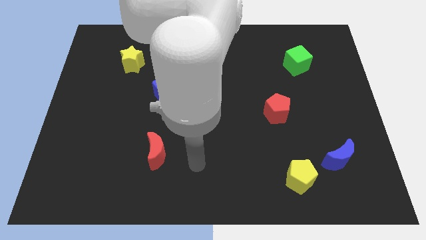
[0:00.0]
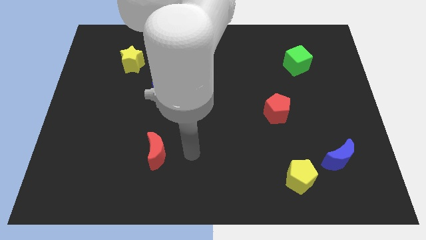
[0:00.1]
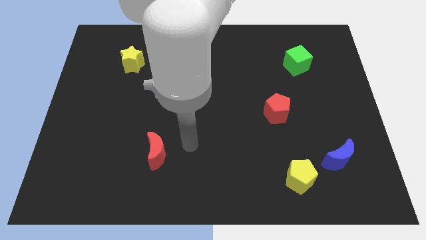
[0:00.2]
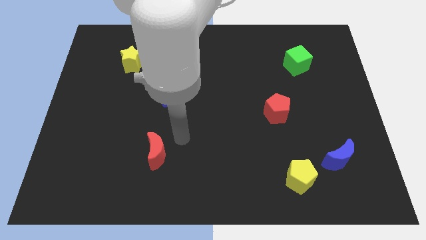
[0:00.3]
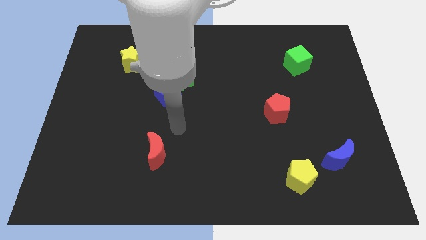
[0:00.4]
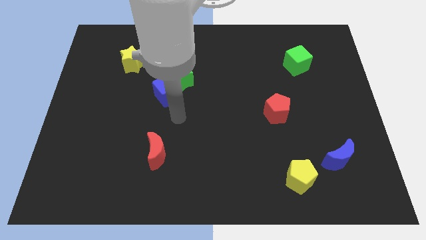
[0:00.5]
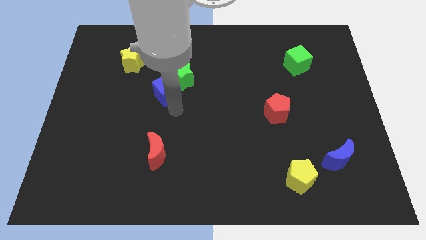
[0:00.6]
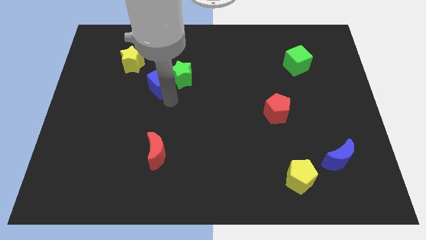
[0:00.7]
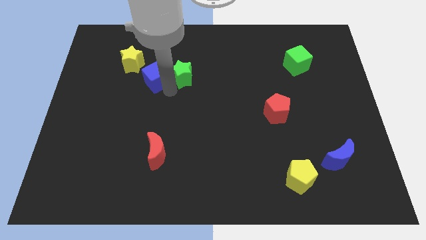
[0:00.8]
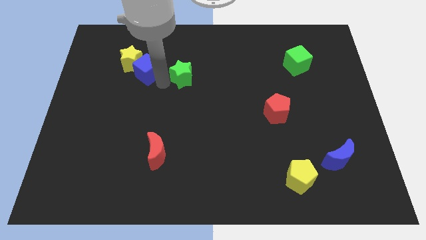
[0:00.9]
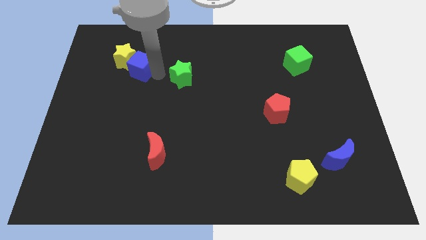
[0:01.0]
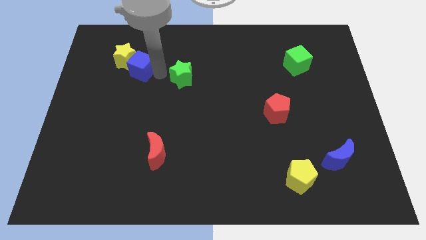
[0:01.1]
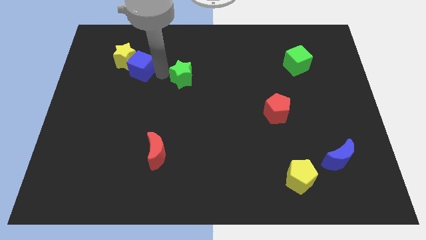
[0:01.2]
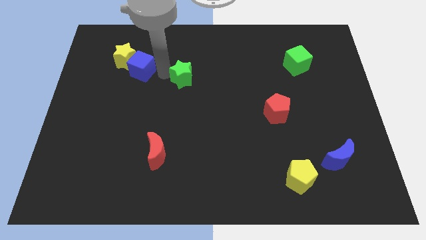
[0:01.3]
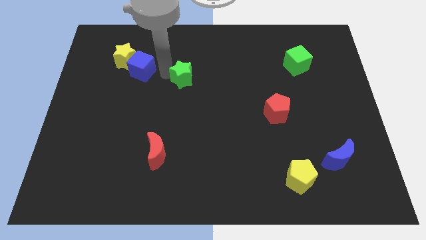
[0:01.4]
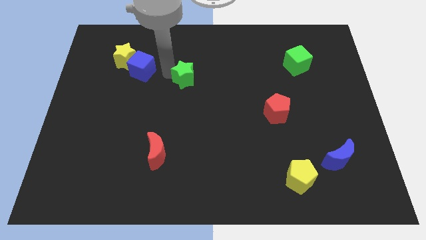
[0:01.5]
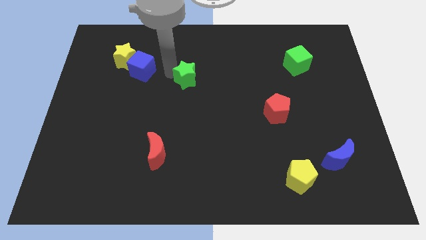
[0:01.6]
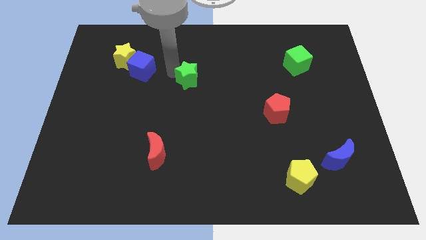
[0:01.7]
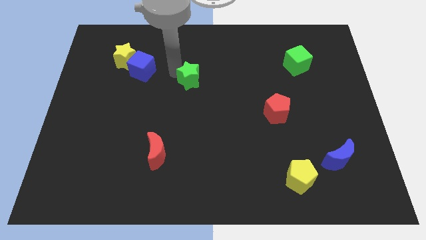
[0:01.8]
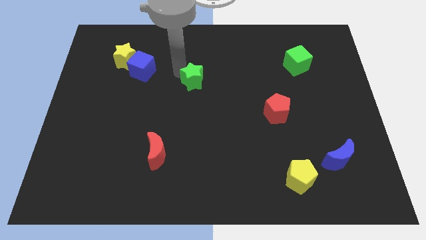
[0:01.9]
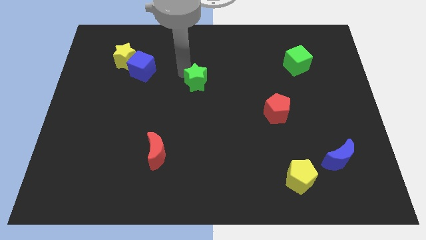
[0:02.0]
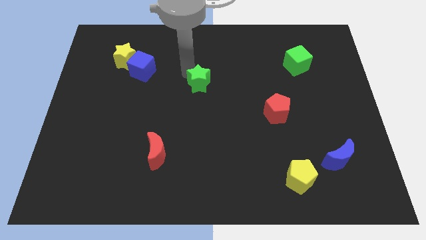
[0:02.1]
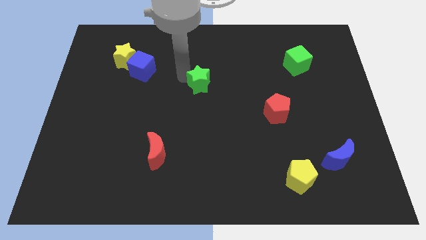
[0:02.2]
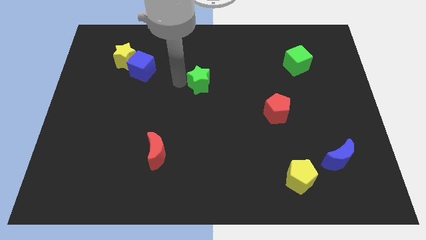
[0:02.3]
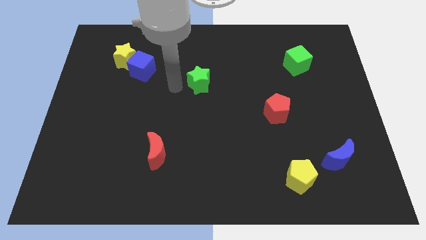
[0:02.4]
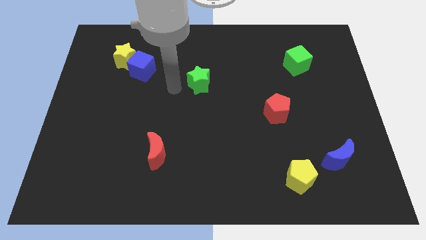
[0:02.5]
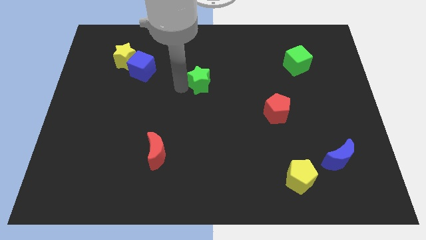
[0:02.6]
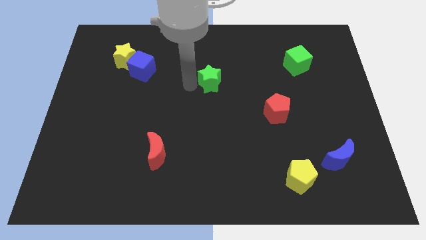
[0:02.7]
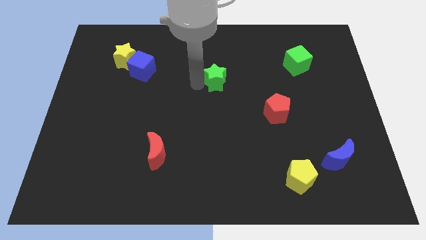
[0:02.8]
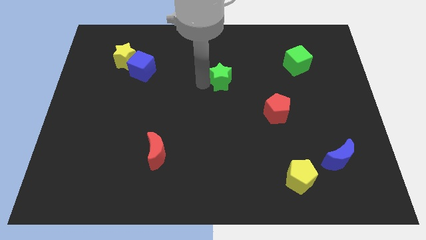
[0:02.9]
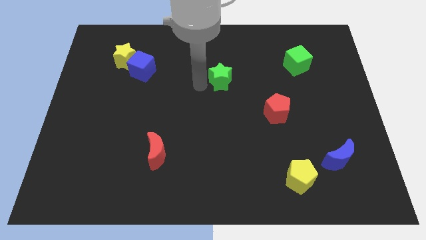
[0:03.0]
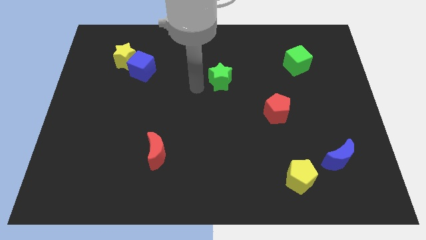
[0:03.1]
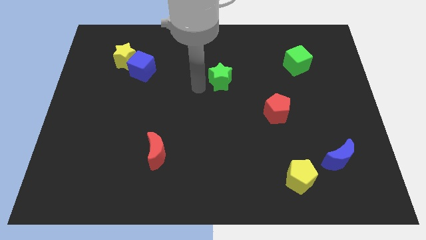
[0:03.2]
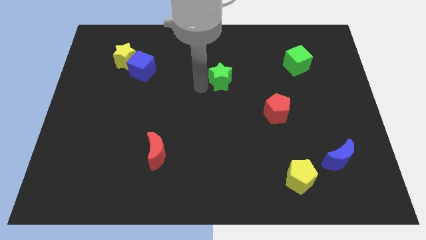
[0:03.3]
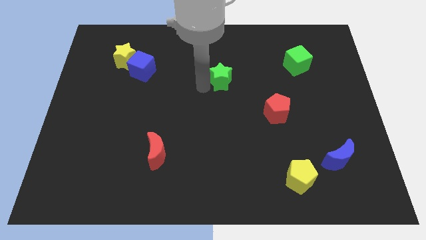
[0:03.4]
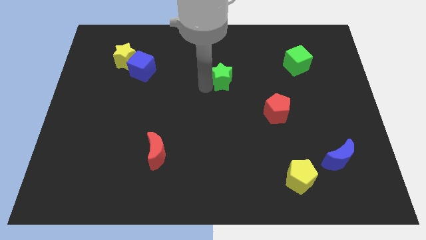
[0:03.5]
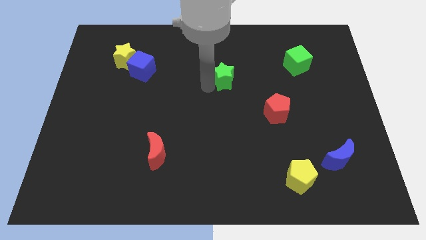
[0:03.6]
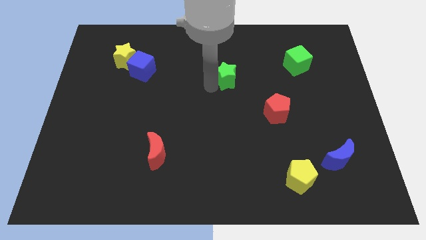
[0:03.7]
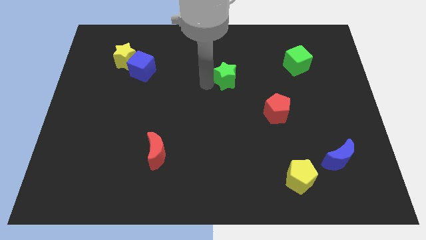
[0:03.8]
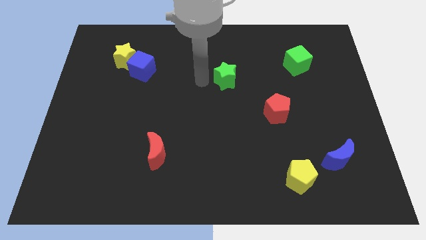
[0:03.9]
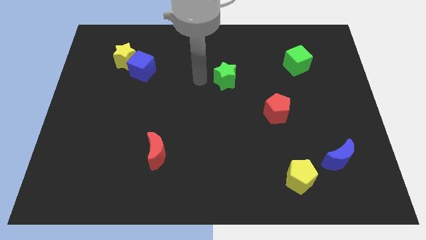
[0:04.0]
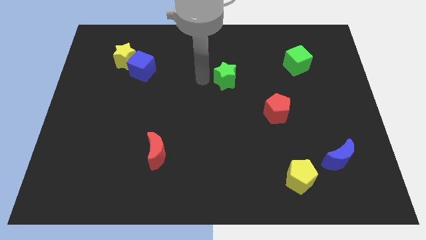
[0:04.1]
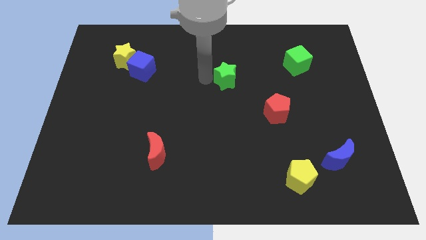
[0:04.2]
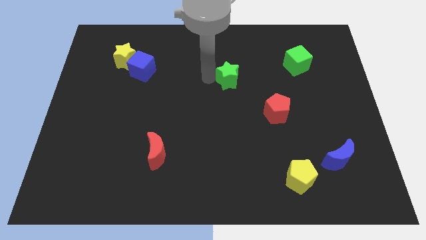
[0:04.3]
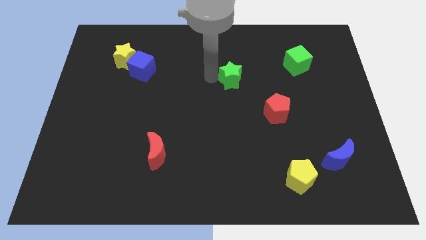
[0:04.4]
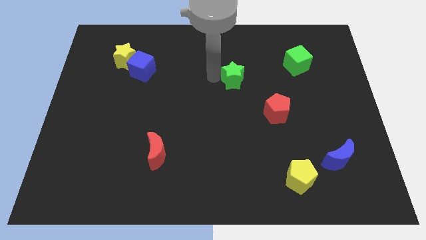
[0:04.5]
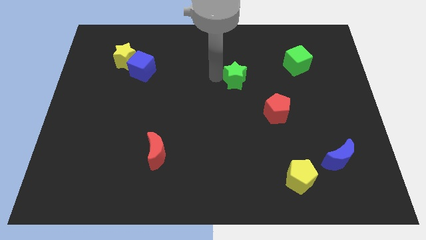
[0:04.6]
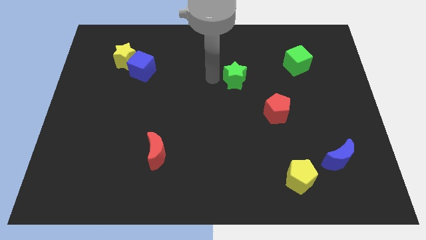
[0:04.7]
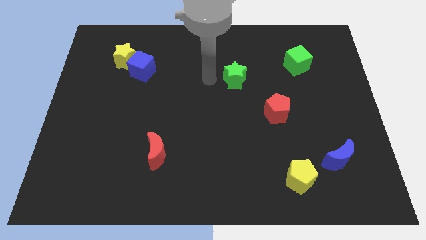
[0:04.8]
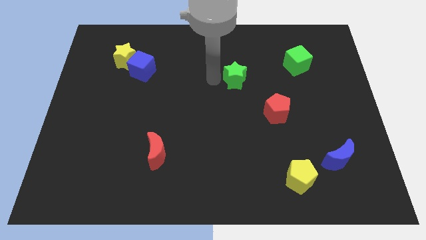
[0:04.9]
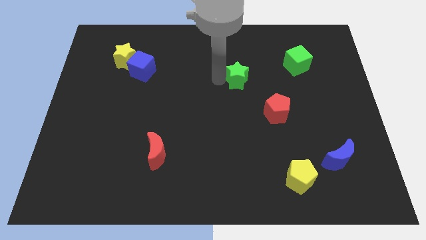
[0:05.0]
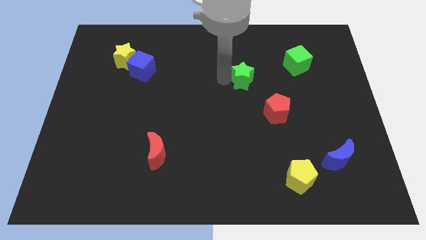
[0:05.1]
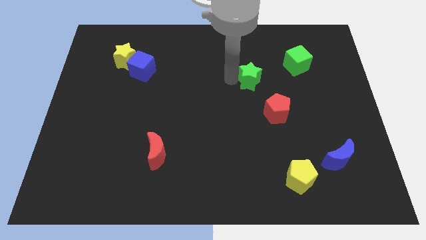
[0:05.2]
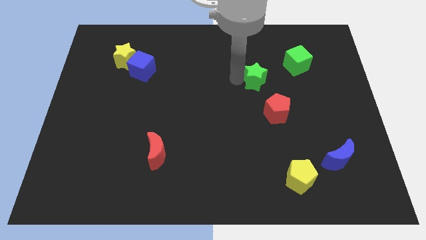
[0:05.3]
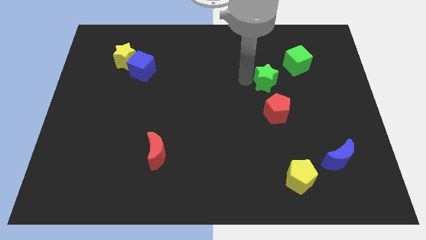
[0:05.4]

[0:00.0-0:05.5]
push the green star to the right

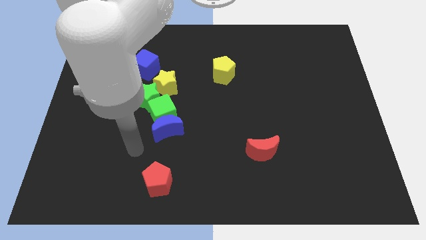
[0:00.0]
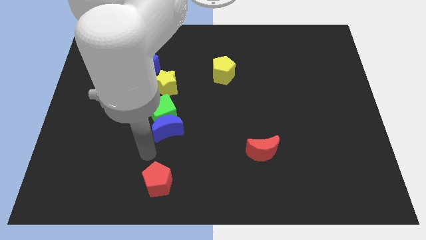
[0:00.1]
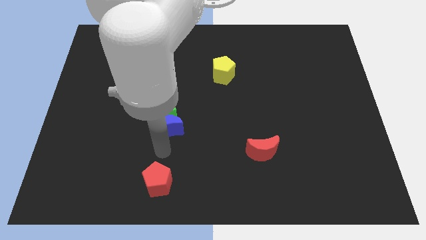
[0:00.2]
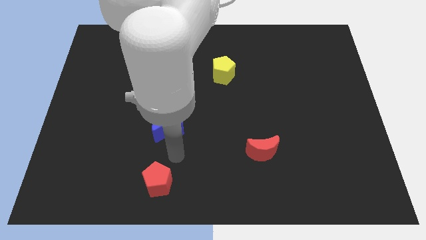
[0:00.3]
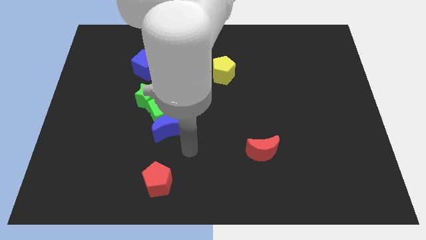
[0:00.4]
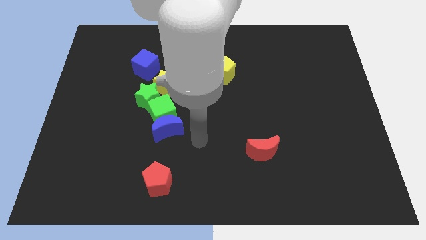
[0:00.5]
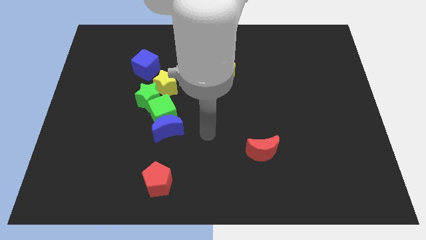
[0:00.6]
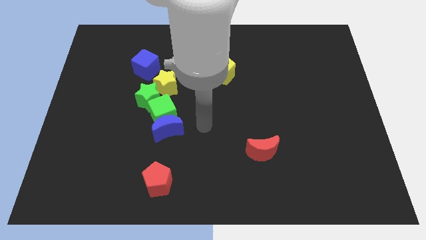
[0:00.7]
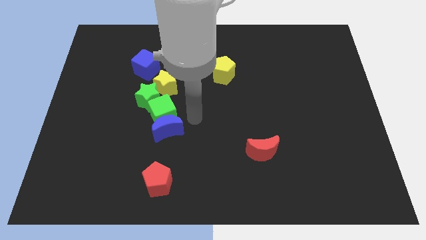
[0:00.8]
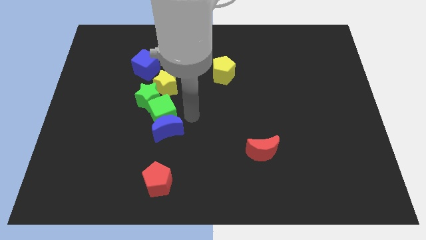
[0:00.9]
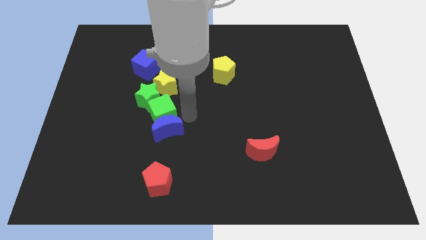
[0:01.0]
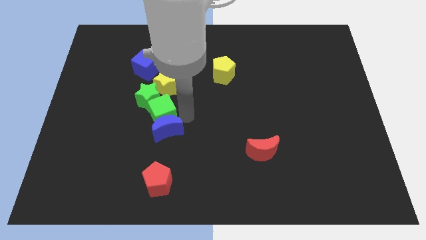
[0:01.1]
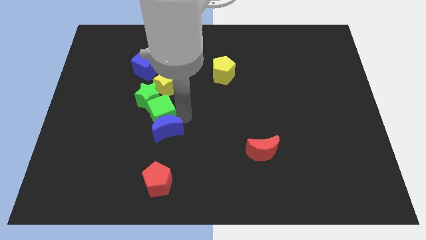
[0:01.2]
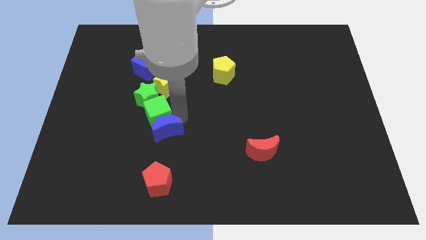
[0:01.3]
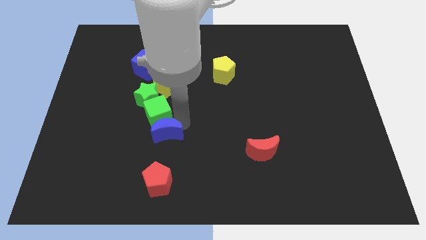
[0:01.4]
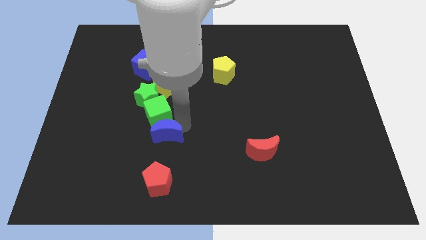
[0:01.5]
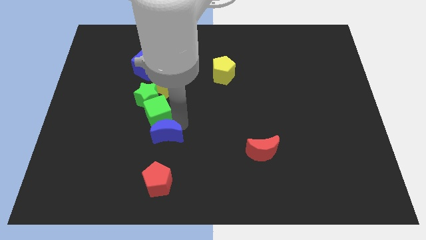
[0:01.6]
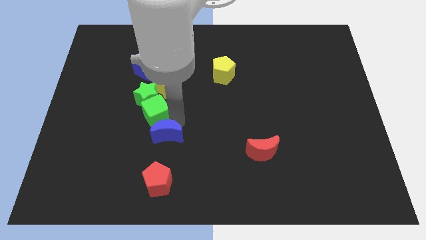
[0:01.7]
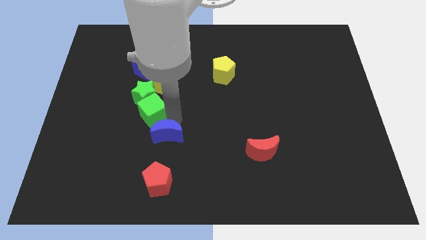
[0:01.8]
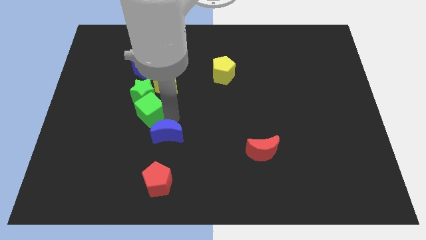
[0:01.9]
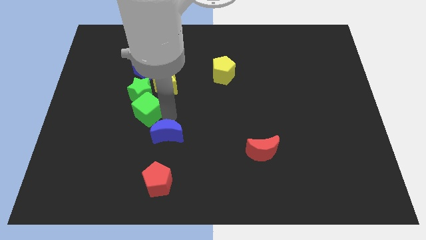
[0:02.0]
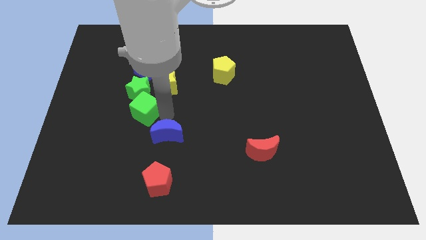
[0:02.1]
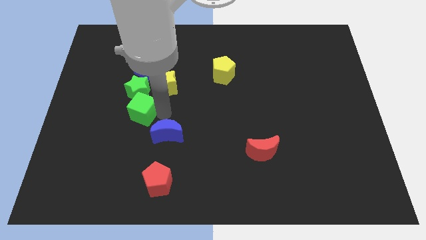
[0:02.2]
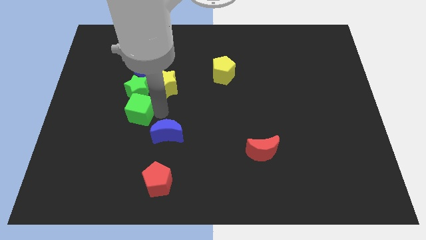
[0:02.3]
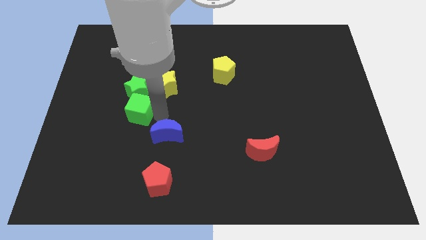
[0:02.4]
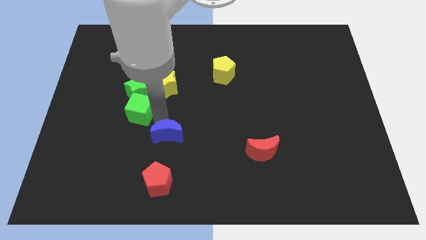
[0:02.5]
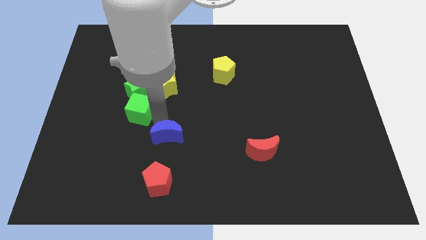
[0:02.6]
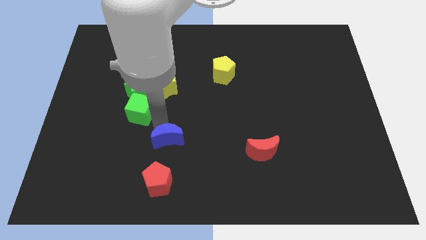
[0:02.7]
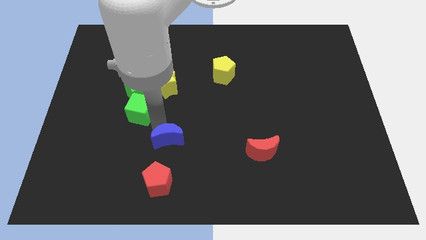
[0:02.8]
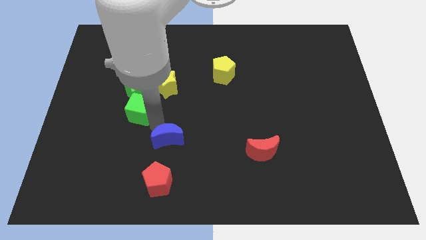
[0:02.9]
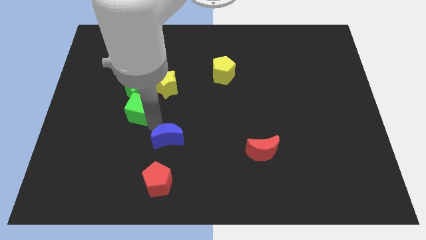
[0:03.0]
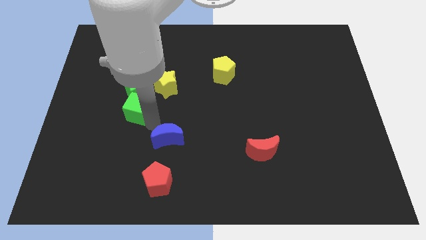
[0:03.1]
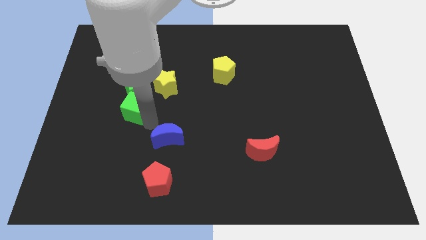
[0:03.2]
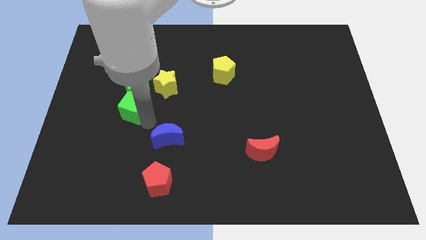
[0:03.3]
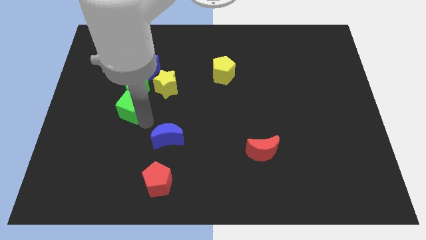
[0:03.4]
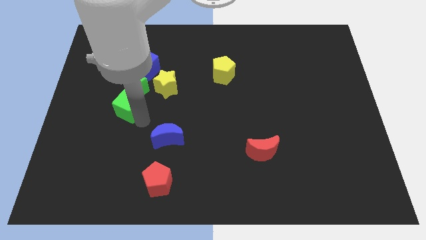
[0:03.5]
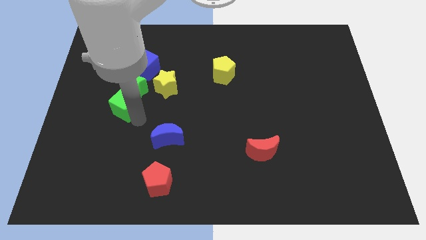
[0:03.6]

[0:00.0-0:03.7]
move the green cube a little bit up and then left
